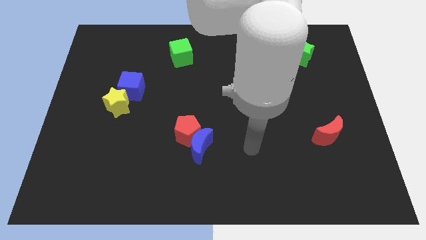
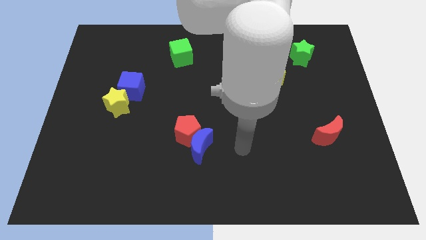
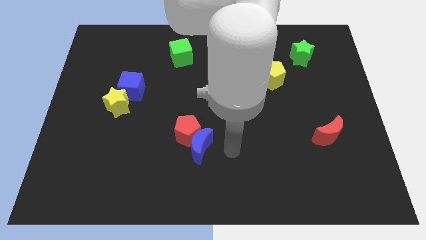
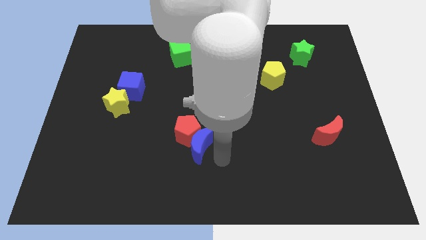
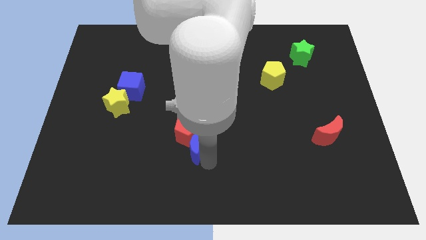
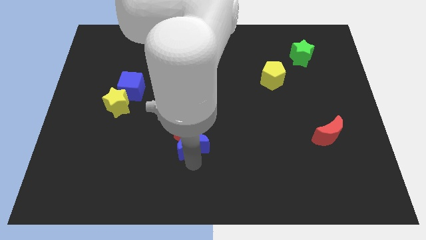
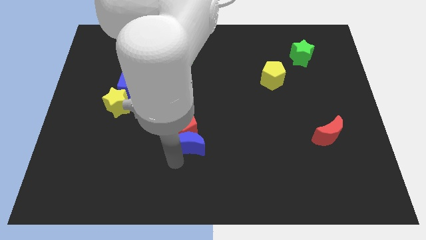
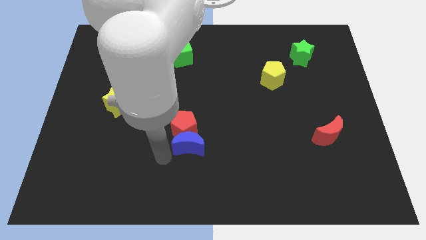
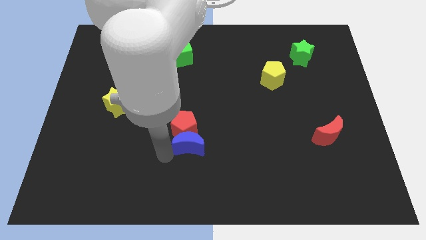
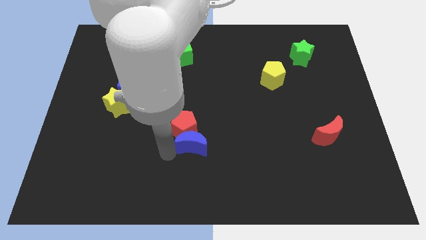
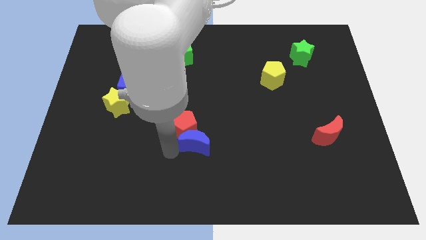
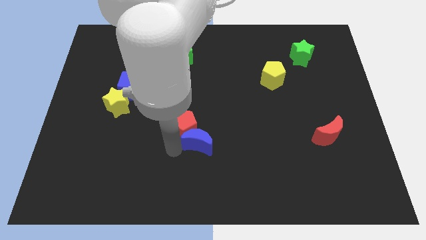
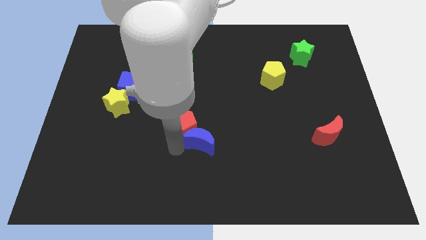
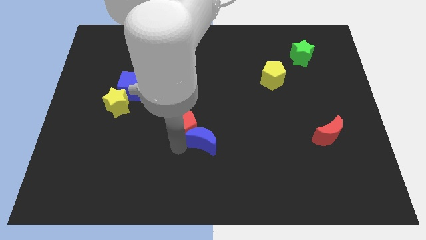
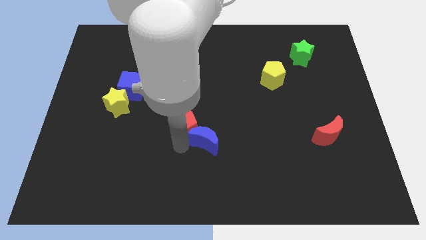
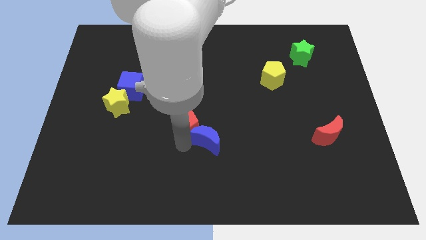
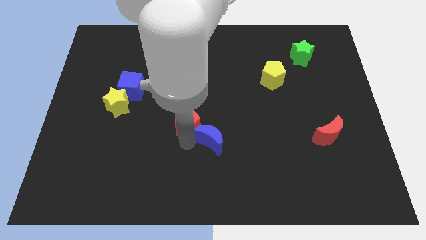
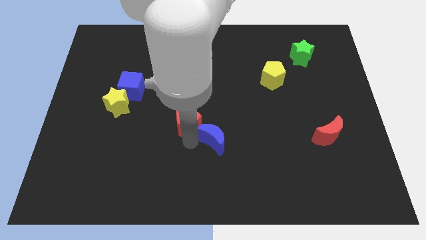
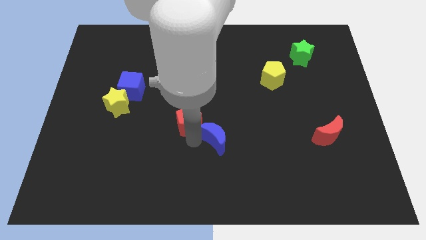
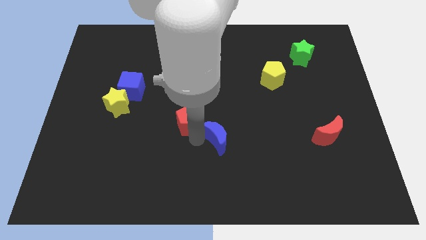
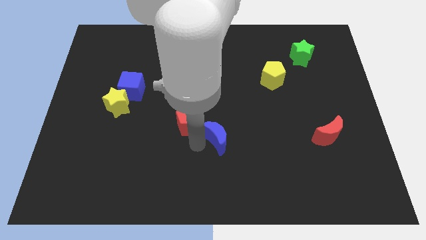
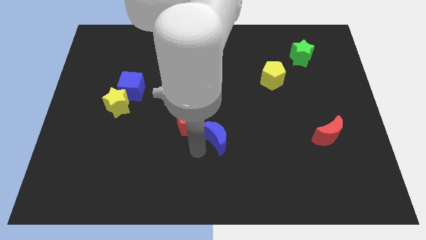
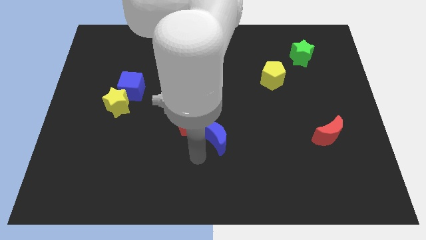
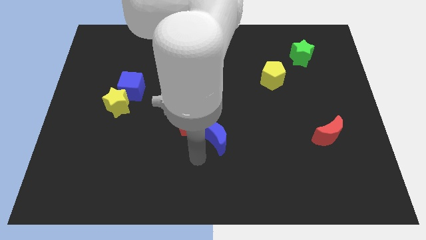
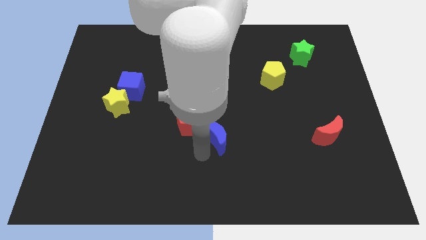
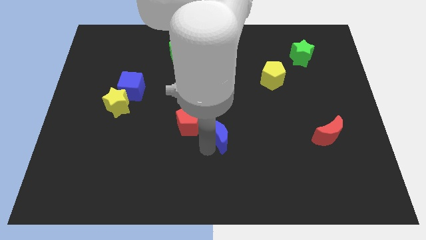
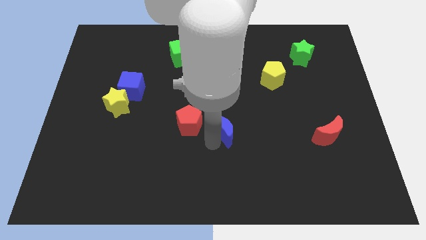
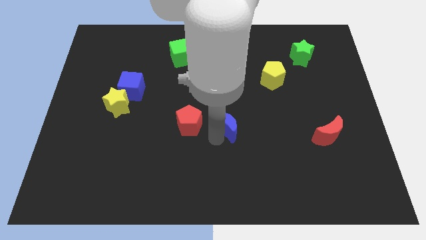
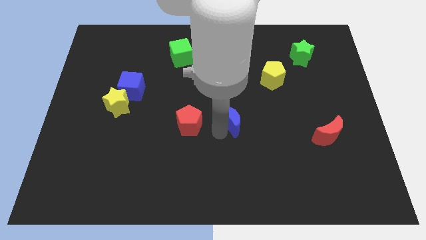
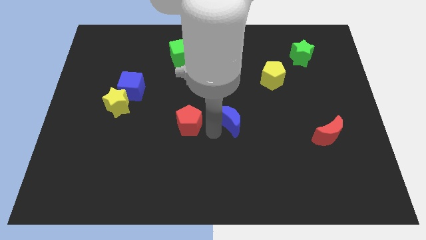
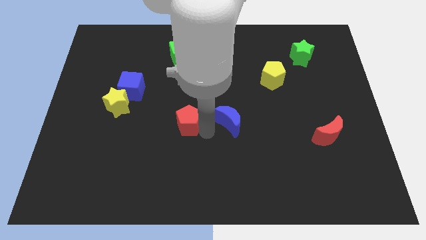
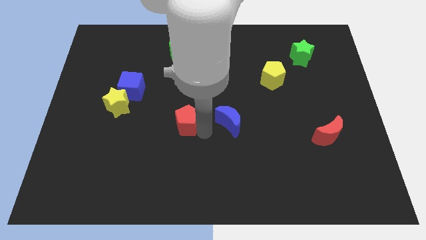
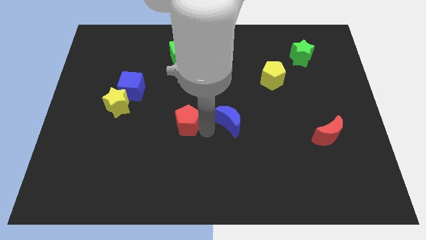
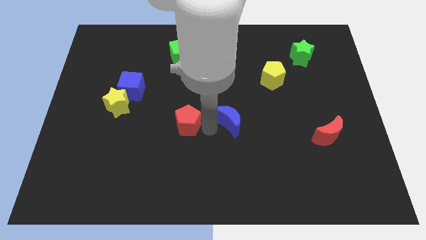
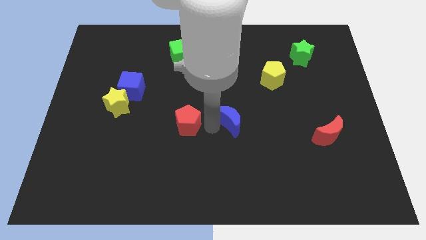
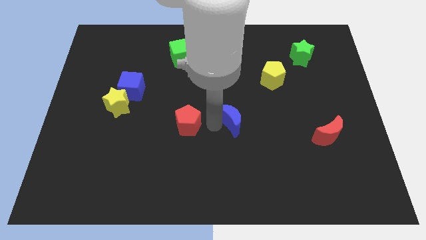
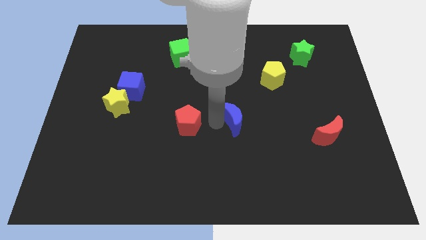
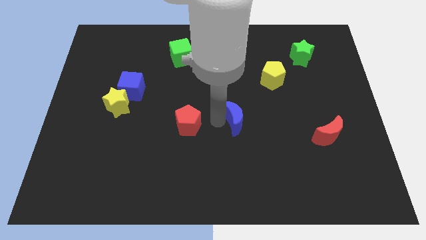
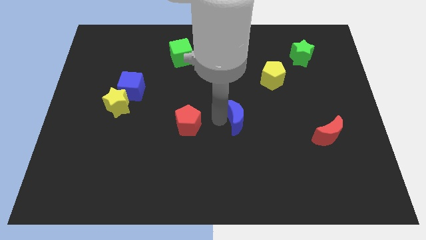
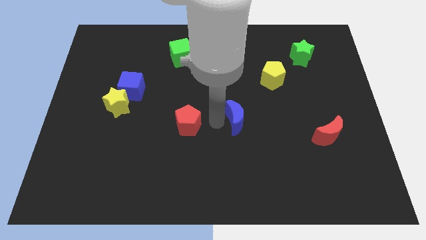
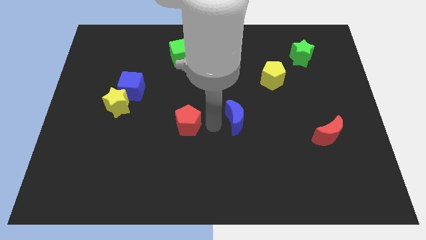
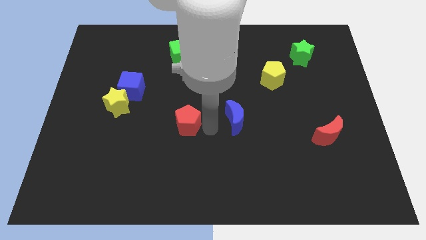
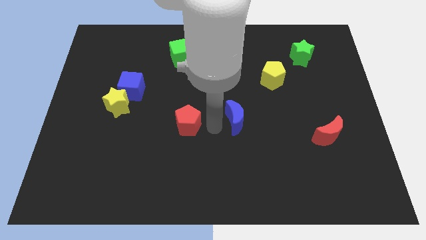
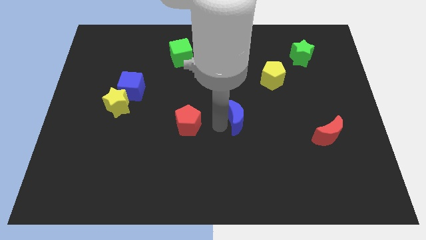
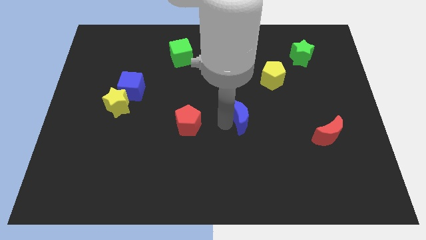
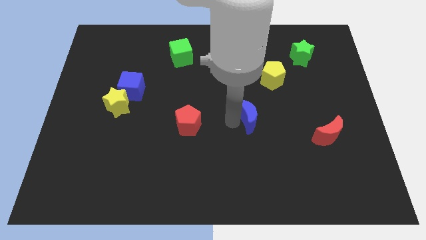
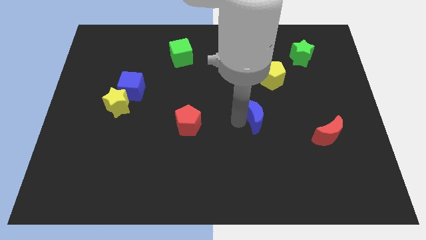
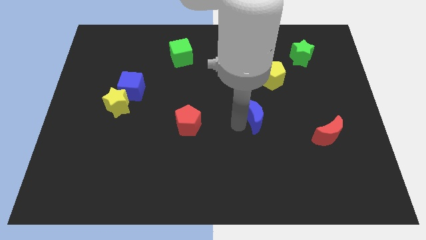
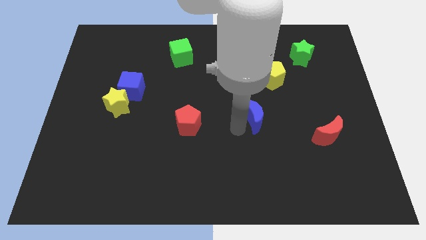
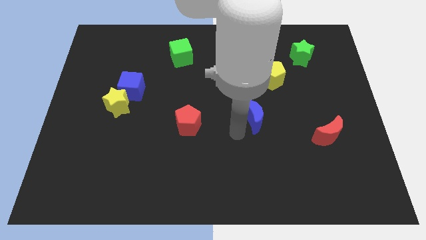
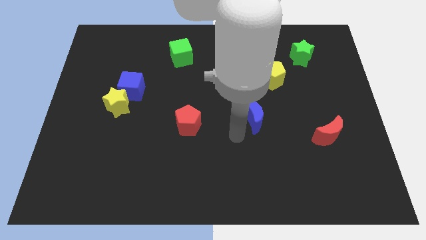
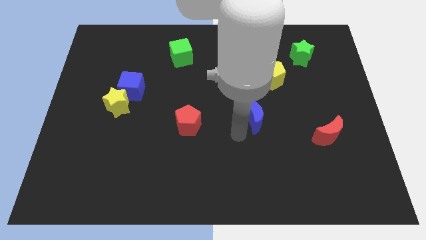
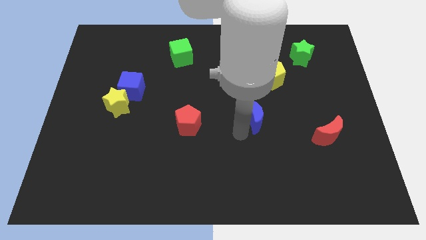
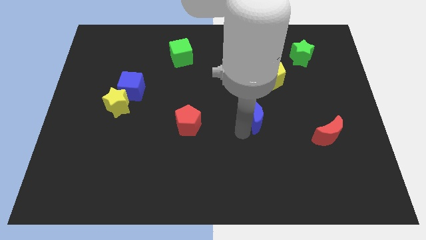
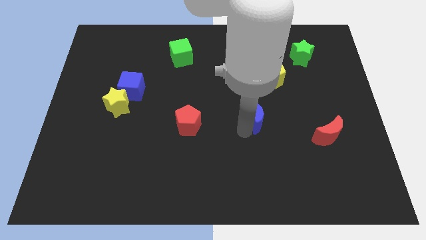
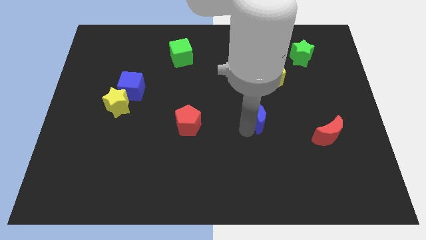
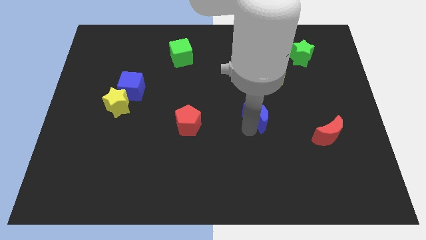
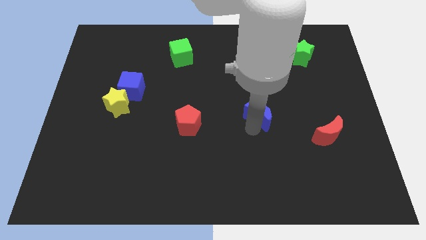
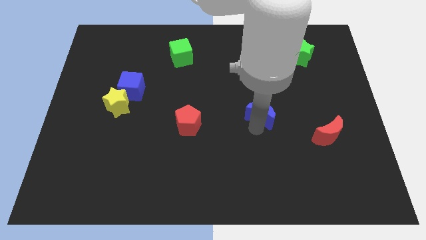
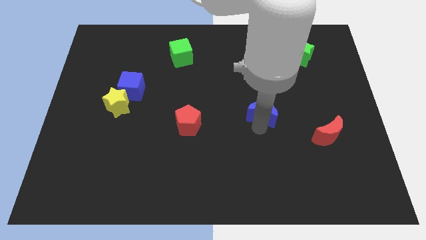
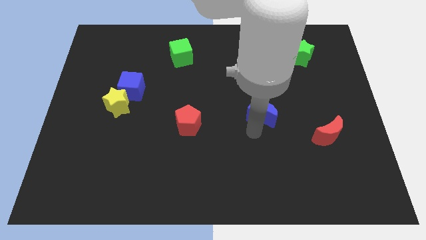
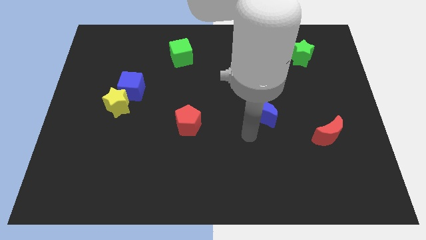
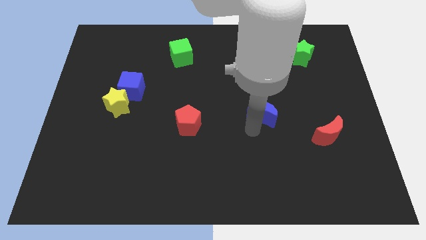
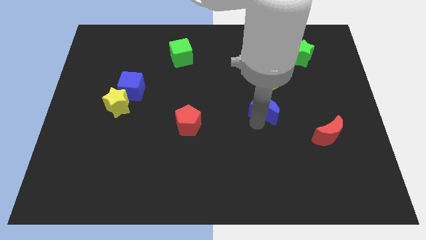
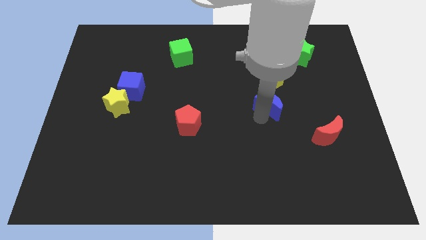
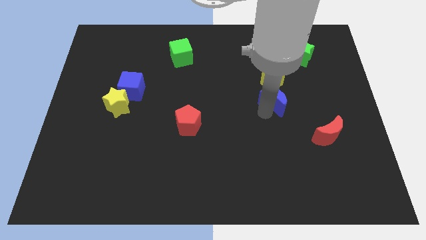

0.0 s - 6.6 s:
slide the blue moon up and to the right

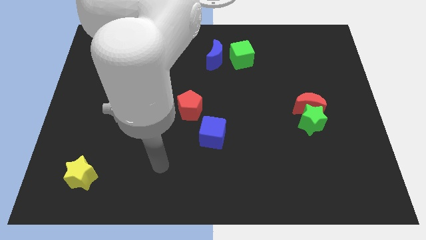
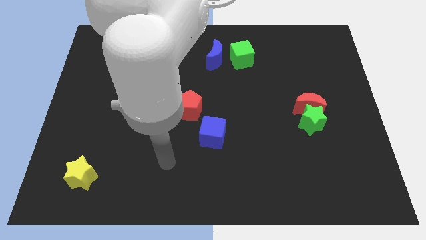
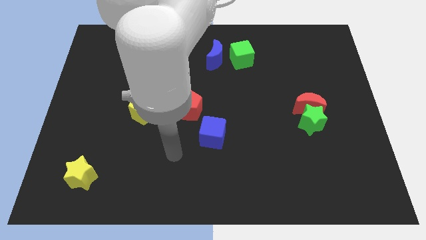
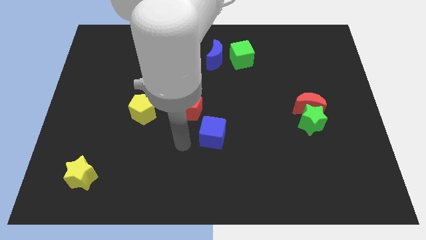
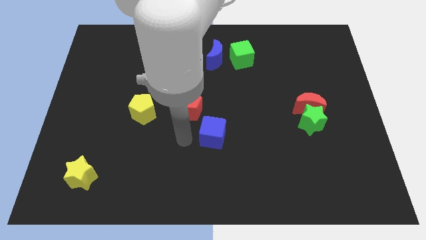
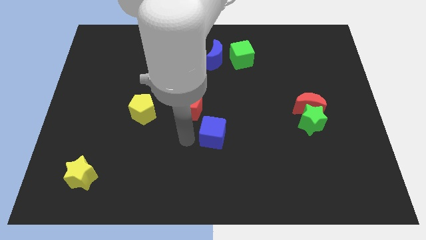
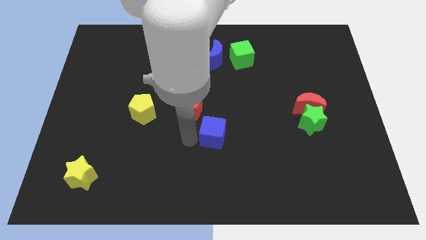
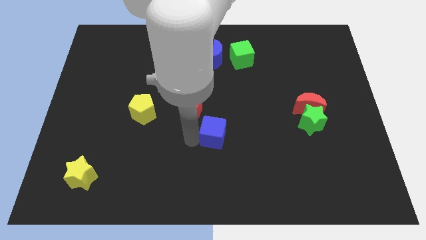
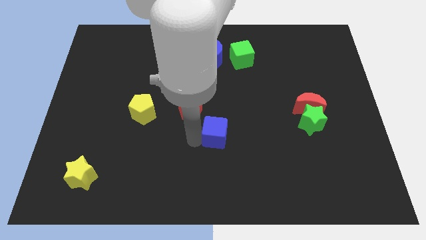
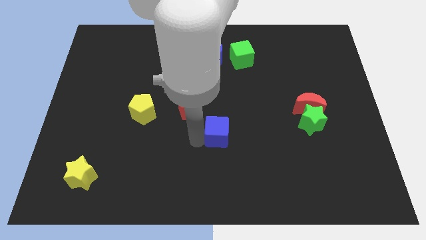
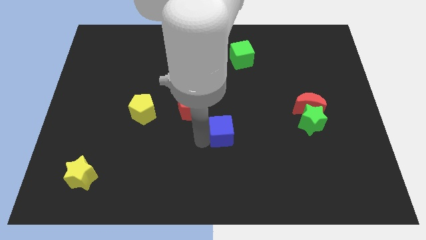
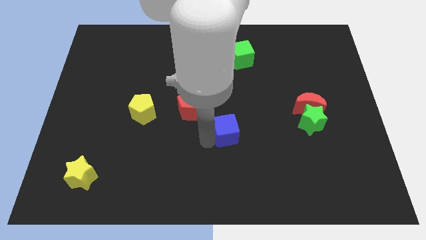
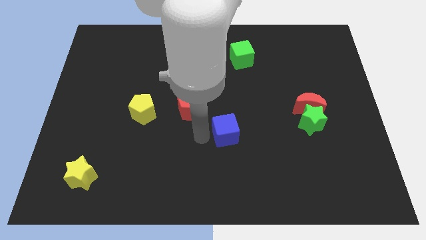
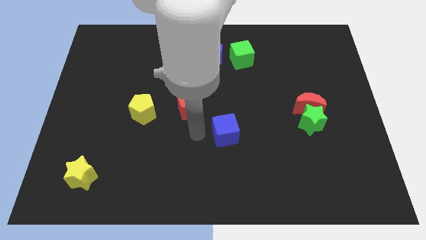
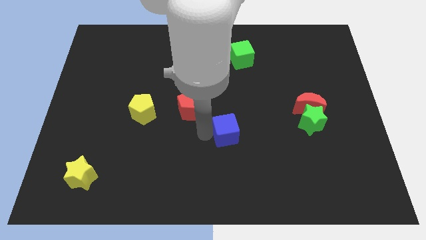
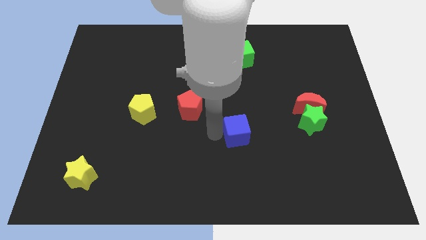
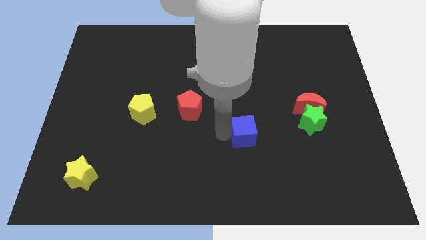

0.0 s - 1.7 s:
slide the blue cube somewhat to the right
